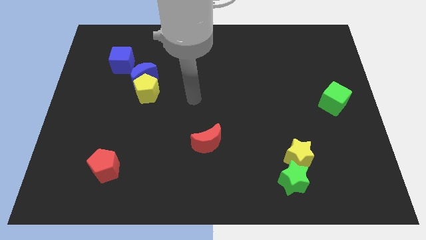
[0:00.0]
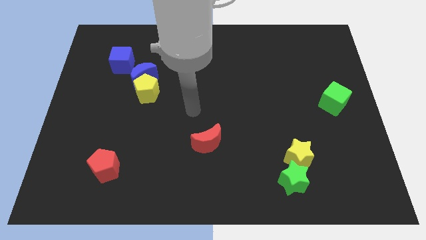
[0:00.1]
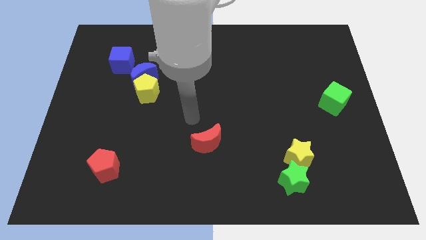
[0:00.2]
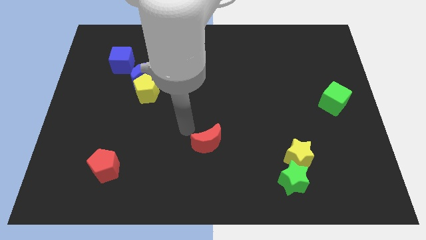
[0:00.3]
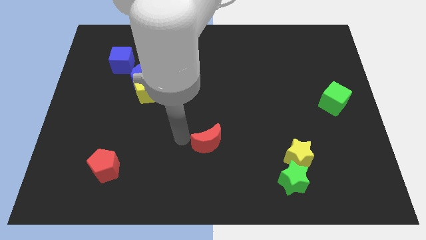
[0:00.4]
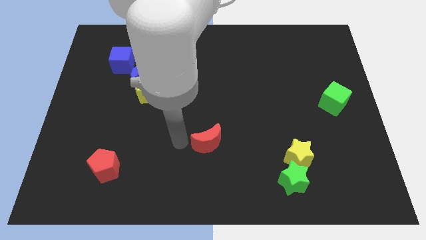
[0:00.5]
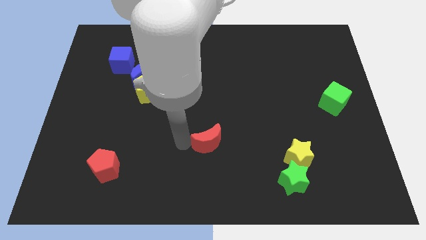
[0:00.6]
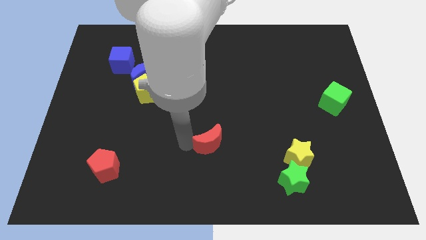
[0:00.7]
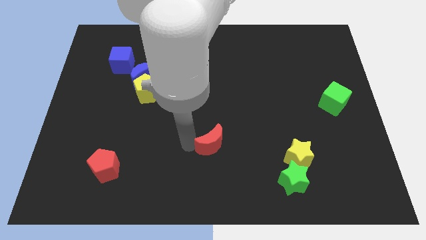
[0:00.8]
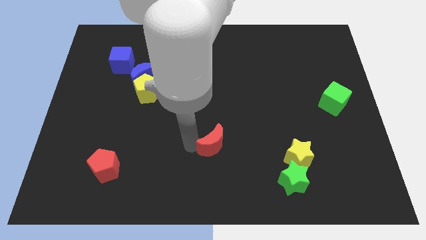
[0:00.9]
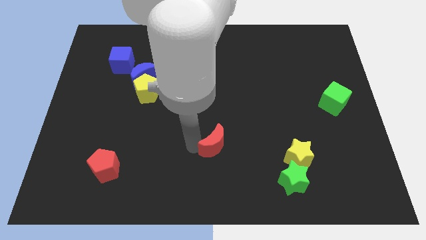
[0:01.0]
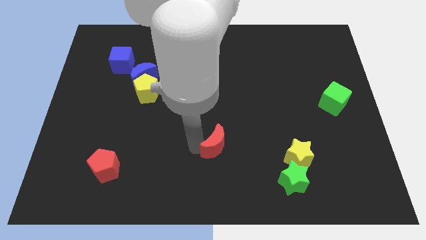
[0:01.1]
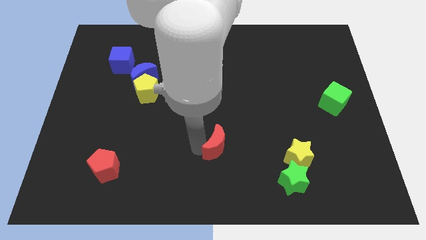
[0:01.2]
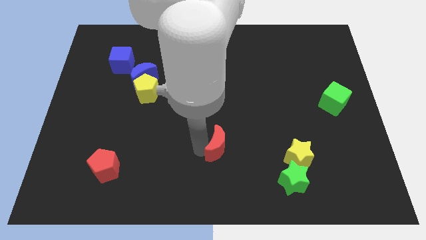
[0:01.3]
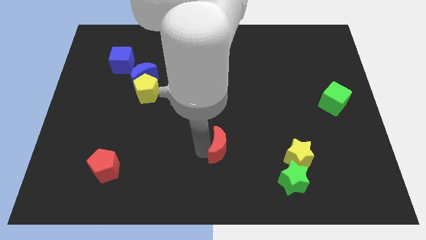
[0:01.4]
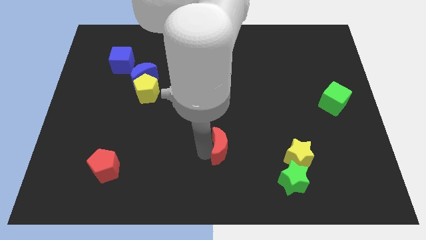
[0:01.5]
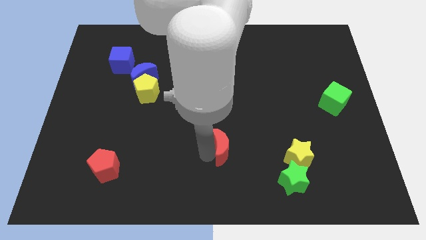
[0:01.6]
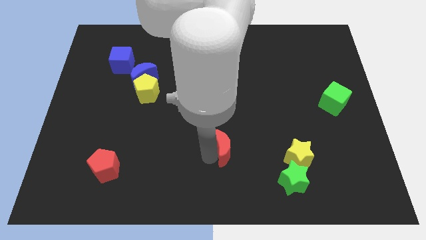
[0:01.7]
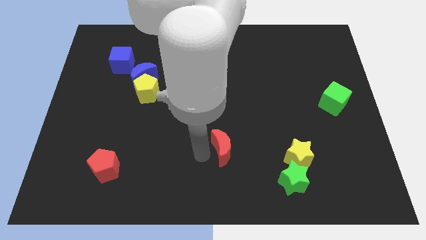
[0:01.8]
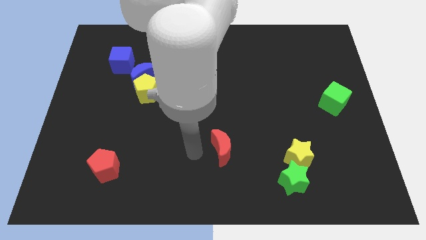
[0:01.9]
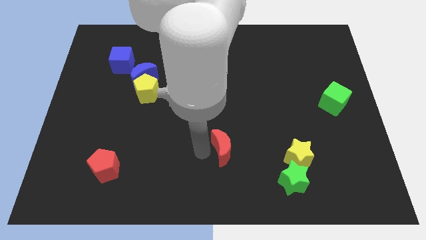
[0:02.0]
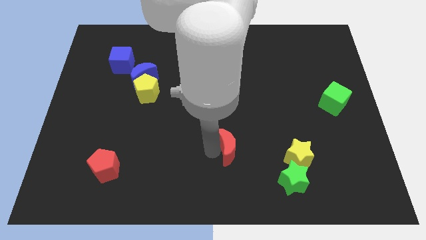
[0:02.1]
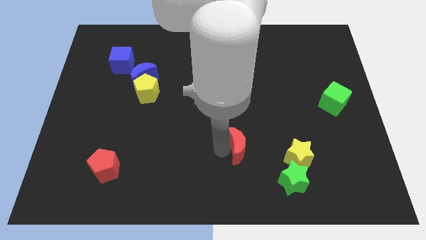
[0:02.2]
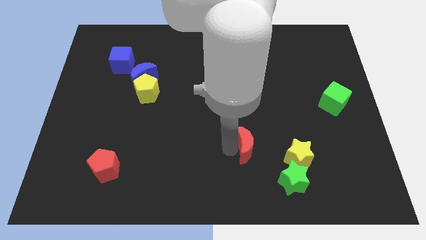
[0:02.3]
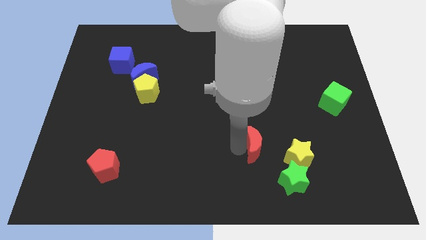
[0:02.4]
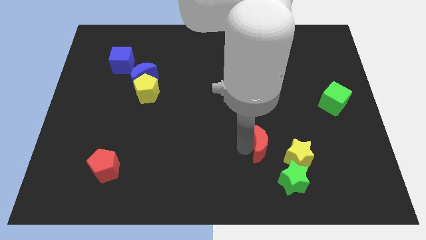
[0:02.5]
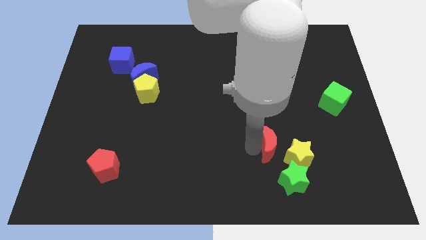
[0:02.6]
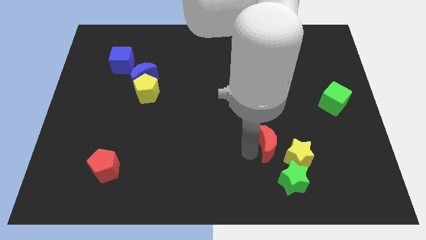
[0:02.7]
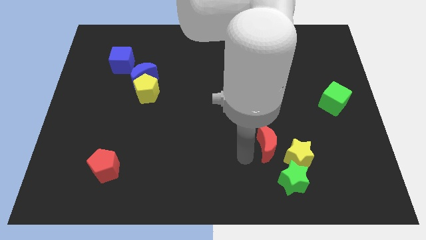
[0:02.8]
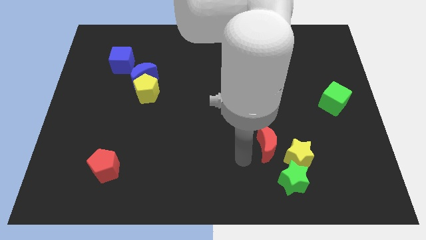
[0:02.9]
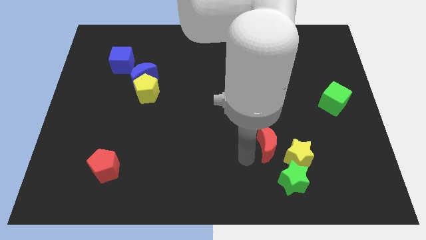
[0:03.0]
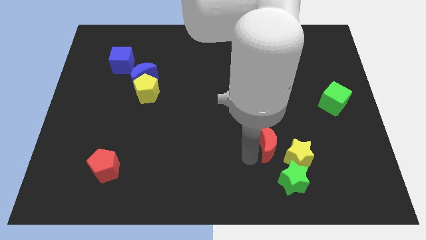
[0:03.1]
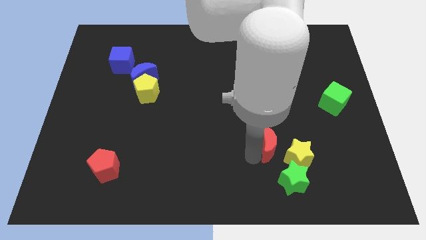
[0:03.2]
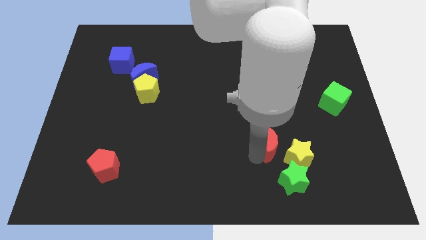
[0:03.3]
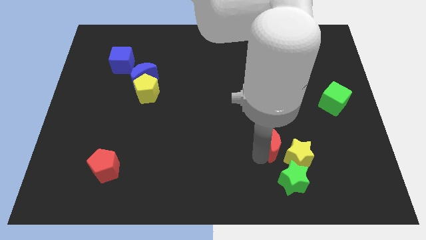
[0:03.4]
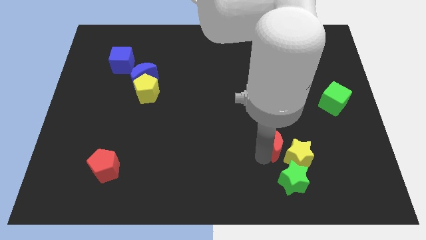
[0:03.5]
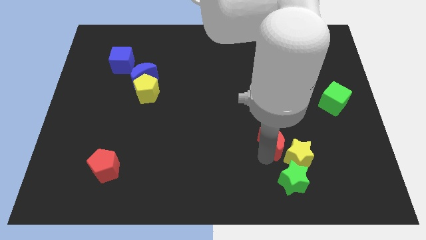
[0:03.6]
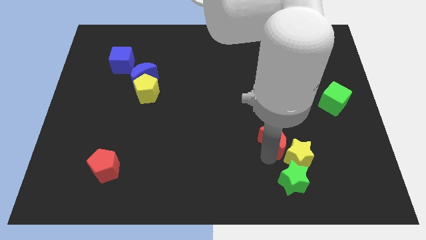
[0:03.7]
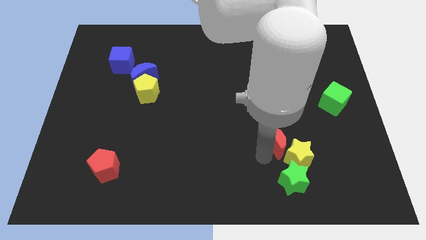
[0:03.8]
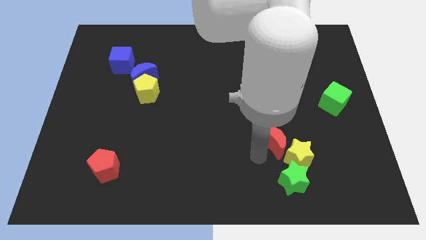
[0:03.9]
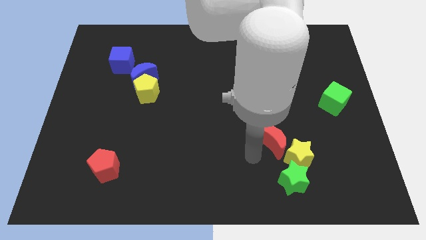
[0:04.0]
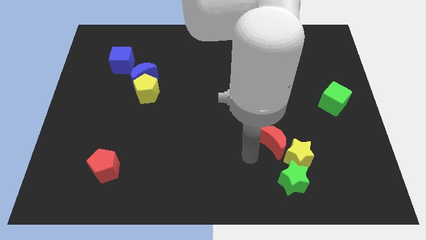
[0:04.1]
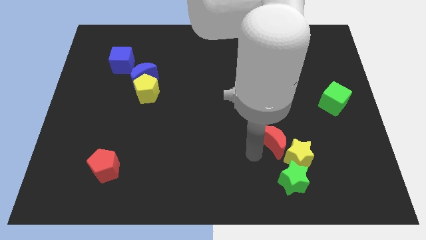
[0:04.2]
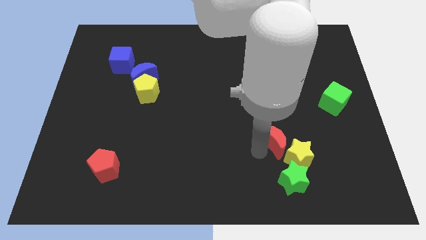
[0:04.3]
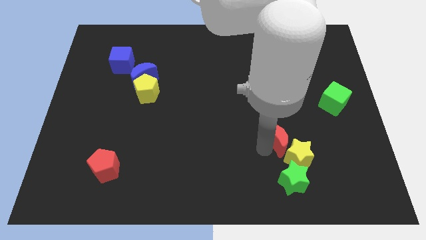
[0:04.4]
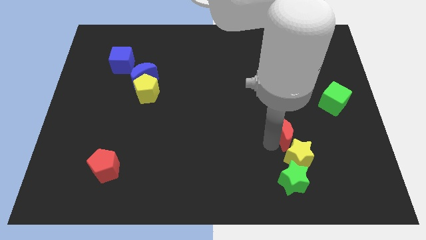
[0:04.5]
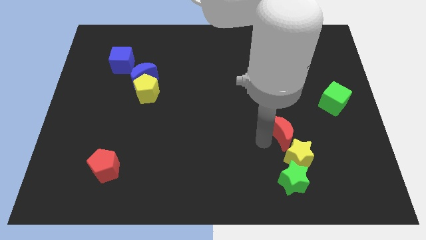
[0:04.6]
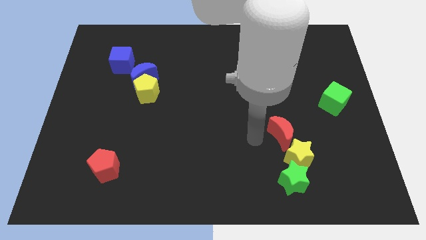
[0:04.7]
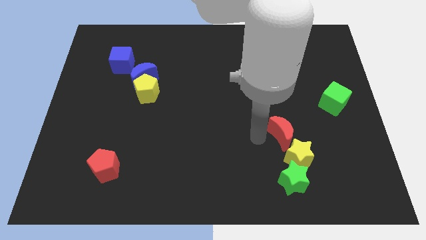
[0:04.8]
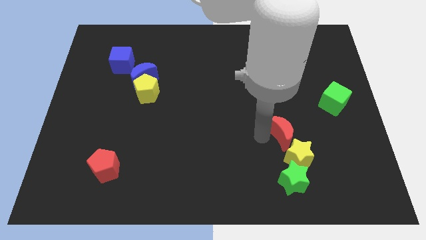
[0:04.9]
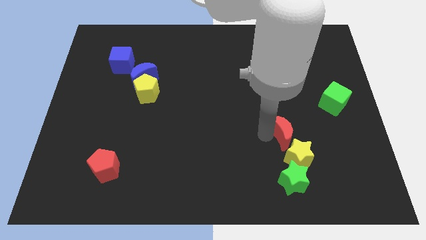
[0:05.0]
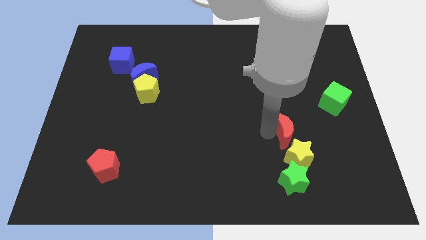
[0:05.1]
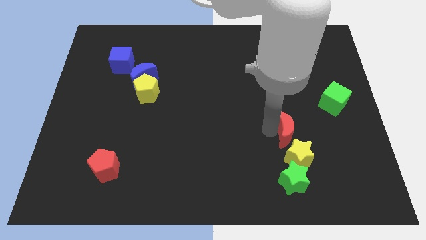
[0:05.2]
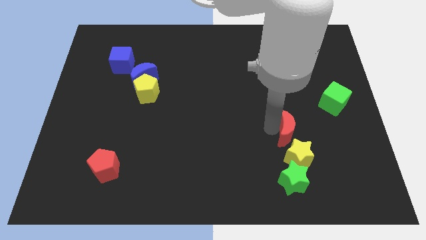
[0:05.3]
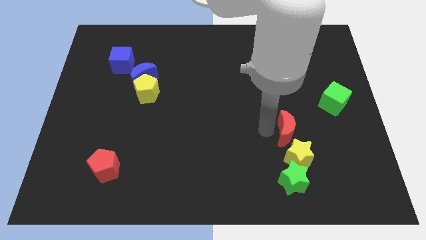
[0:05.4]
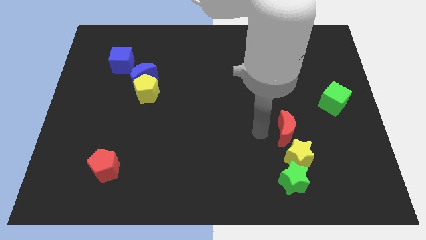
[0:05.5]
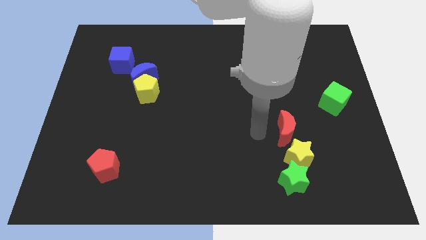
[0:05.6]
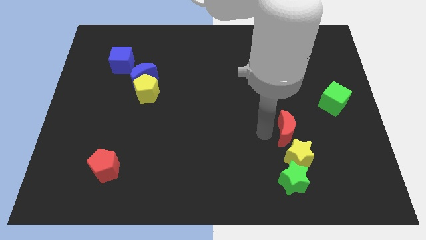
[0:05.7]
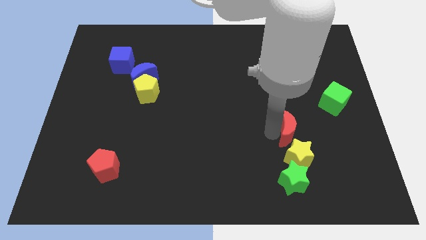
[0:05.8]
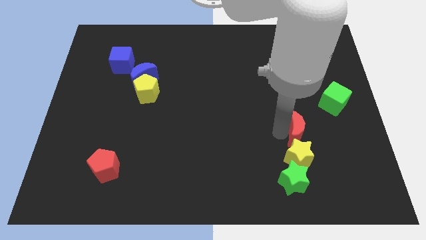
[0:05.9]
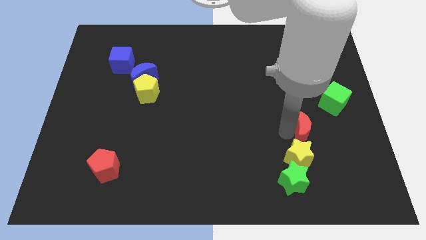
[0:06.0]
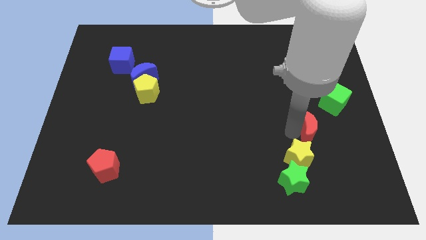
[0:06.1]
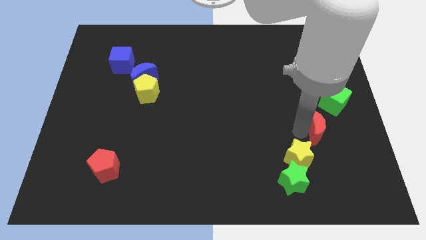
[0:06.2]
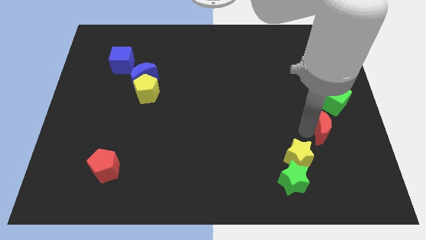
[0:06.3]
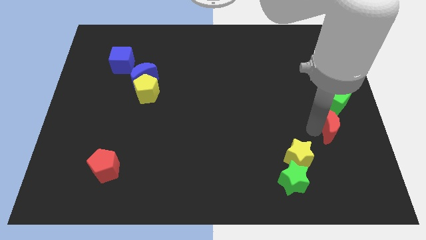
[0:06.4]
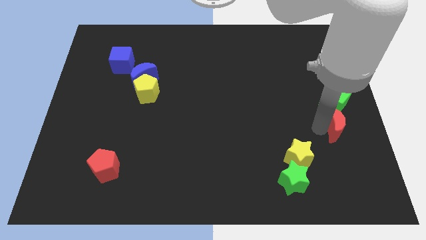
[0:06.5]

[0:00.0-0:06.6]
put the red moon to the center right

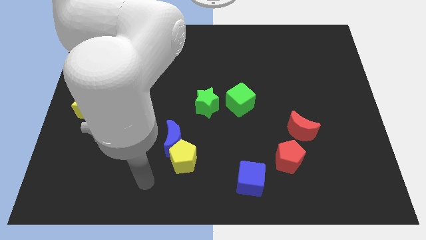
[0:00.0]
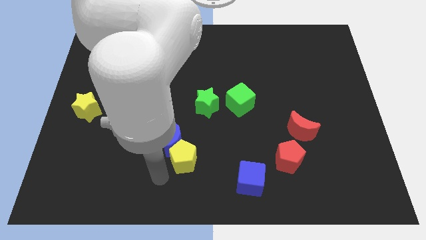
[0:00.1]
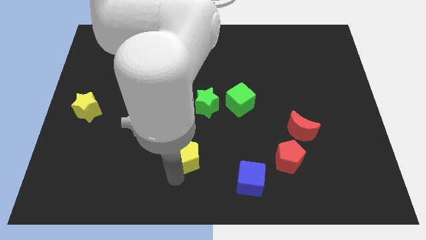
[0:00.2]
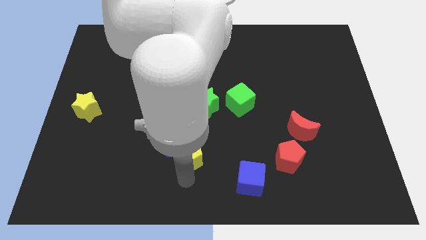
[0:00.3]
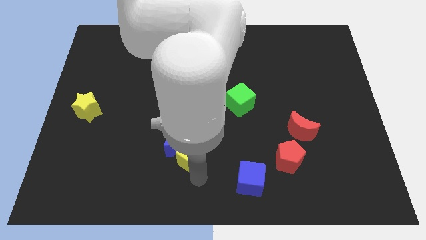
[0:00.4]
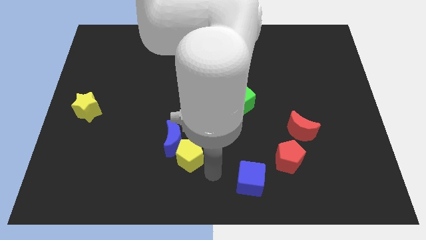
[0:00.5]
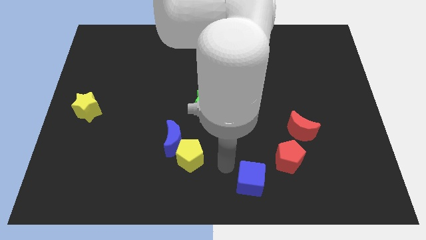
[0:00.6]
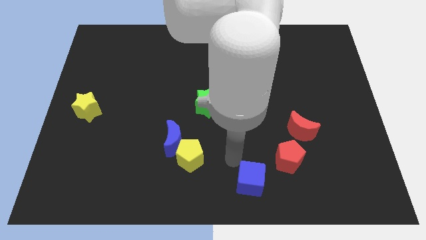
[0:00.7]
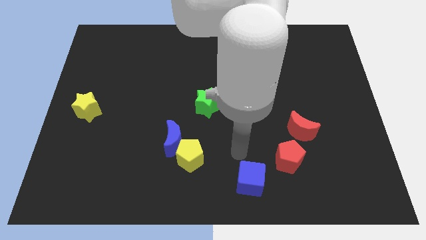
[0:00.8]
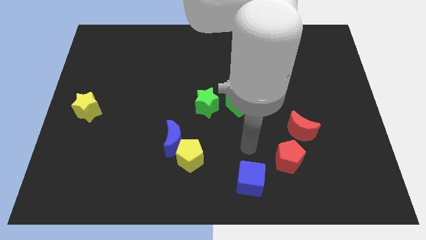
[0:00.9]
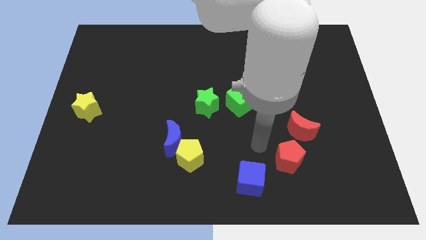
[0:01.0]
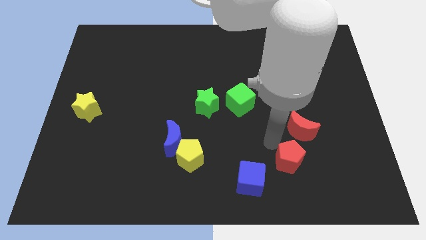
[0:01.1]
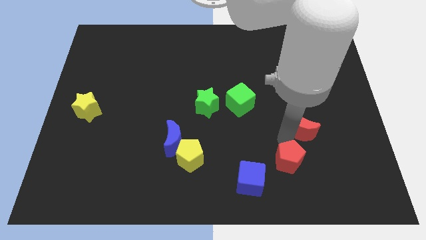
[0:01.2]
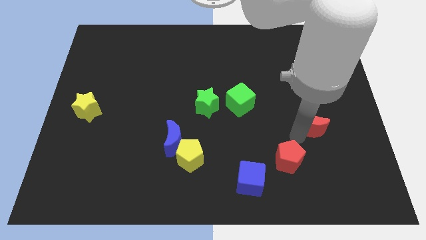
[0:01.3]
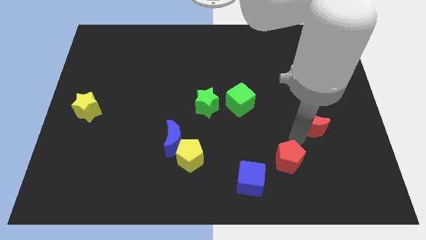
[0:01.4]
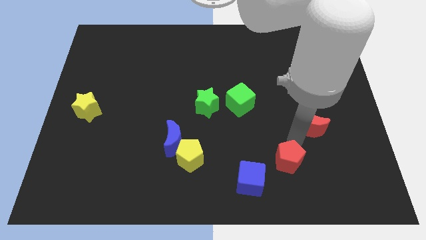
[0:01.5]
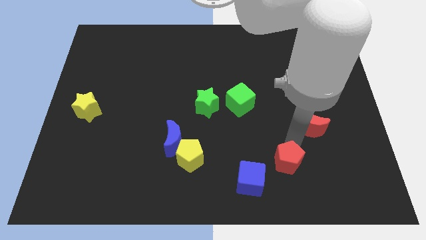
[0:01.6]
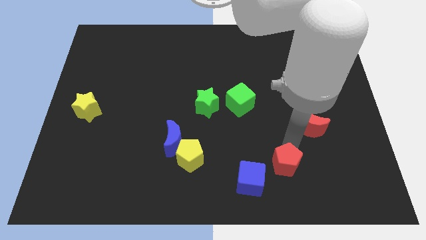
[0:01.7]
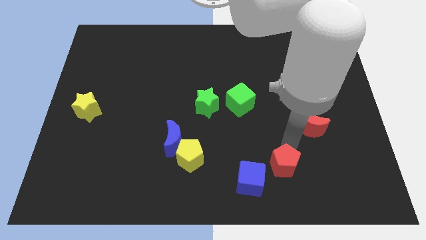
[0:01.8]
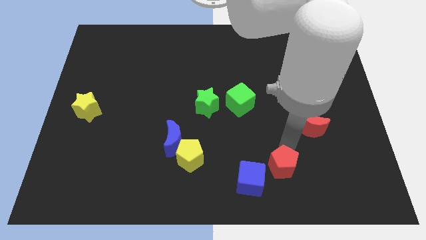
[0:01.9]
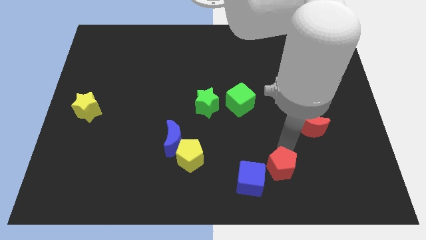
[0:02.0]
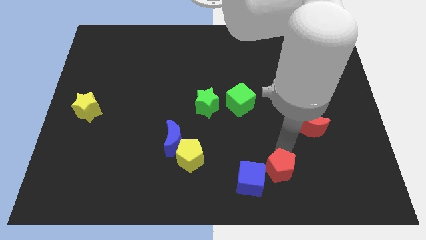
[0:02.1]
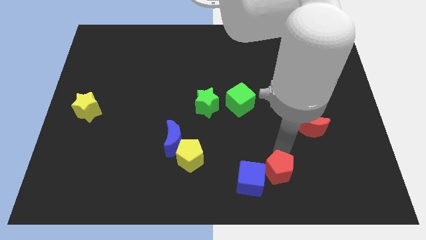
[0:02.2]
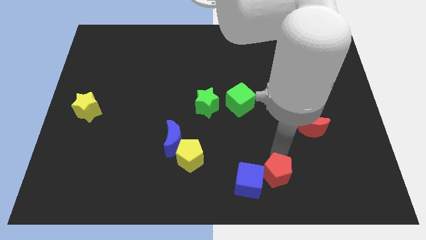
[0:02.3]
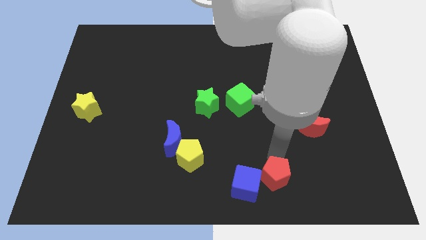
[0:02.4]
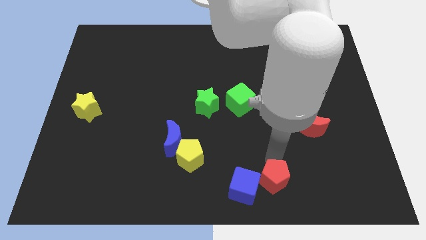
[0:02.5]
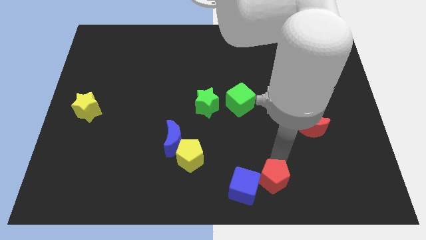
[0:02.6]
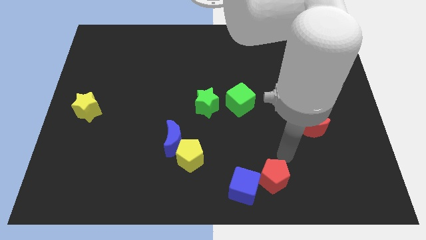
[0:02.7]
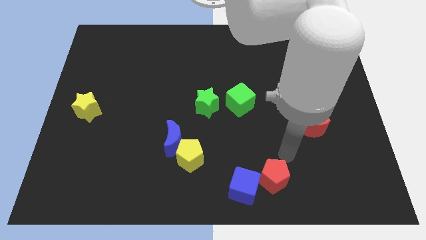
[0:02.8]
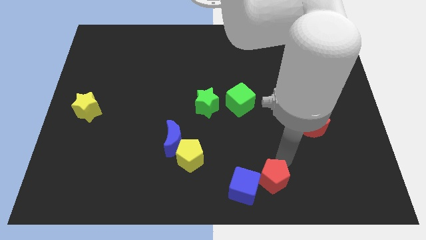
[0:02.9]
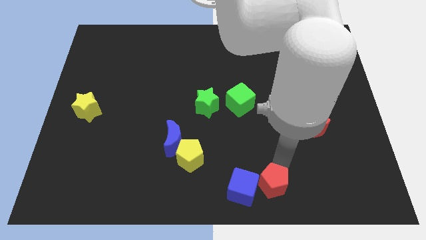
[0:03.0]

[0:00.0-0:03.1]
put the red pentagon to the bottom
